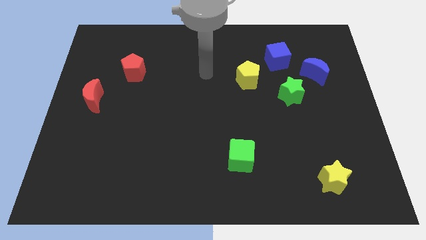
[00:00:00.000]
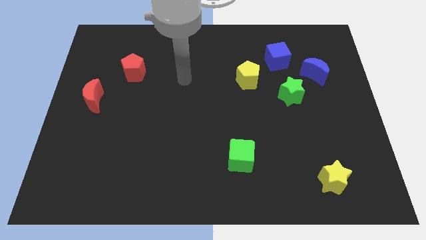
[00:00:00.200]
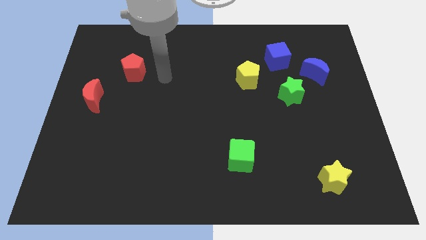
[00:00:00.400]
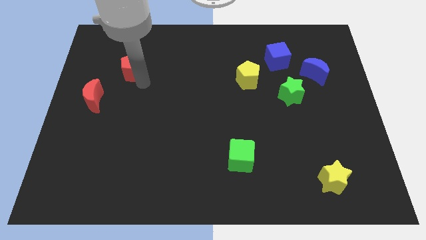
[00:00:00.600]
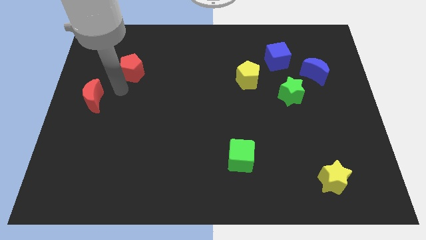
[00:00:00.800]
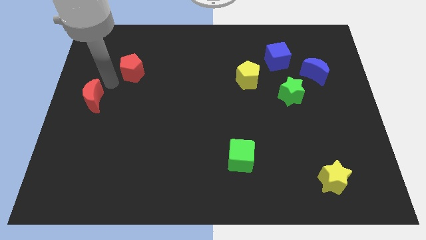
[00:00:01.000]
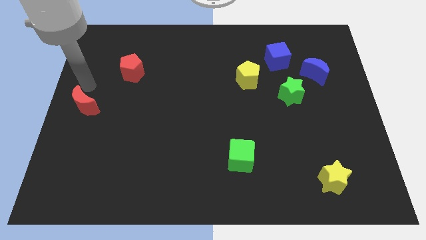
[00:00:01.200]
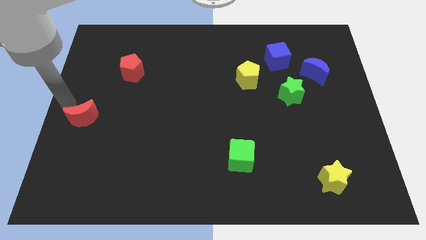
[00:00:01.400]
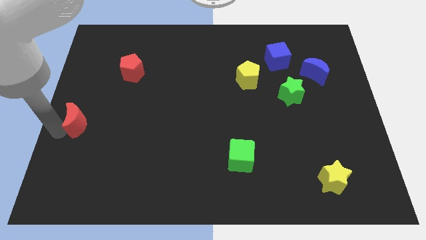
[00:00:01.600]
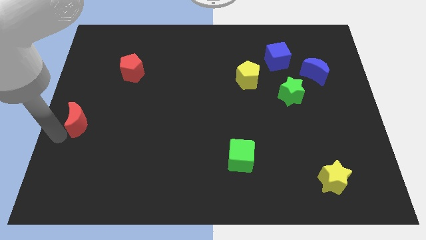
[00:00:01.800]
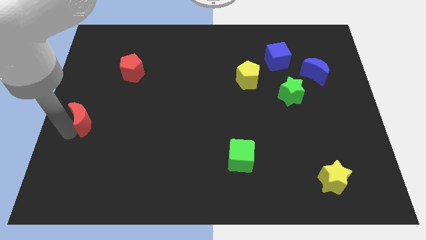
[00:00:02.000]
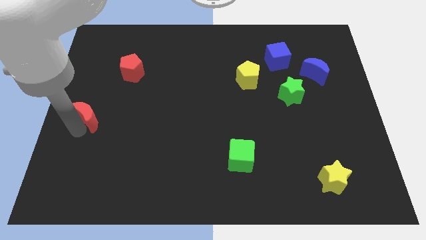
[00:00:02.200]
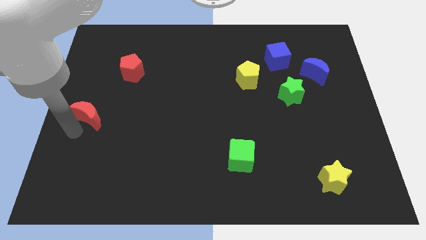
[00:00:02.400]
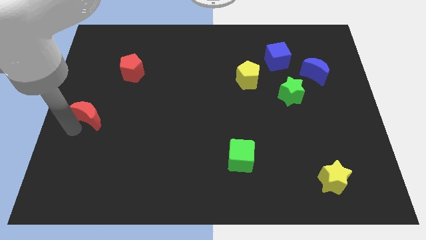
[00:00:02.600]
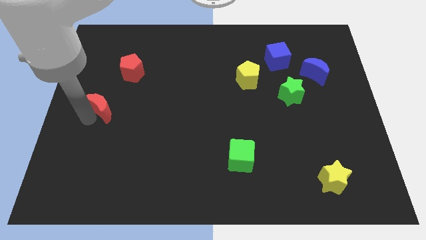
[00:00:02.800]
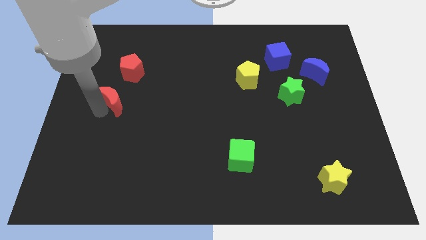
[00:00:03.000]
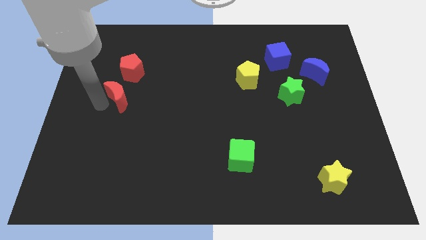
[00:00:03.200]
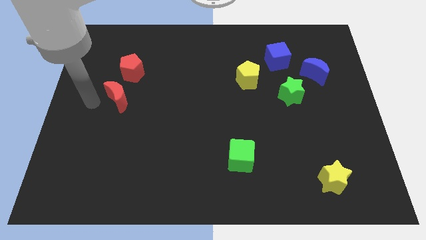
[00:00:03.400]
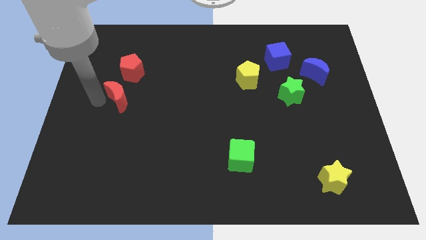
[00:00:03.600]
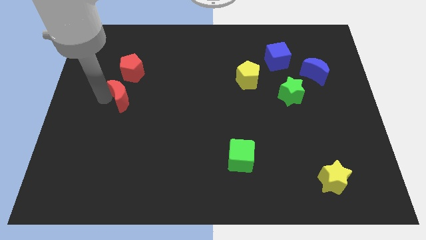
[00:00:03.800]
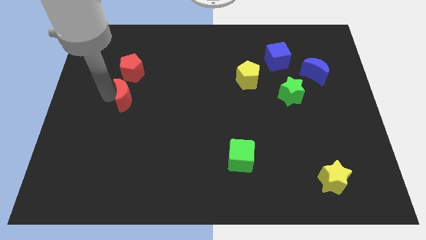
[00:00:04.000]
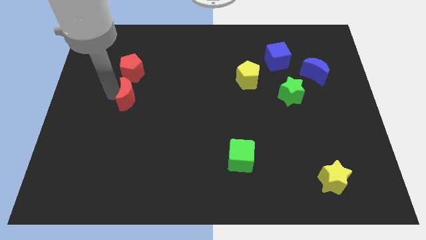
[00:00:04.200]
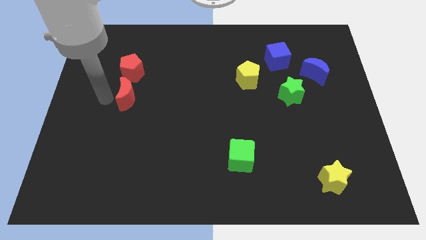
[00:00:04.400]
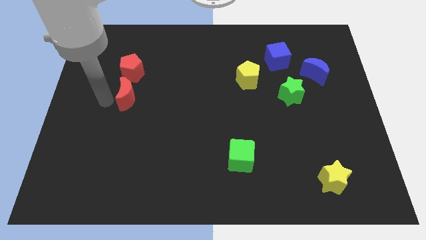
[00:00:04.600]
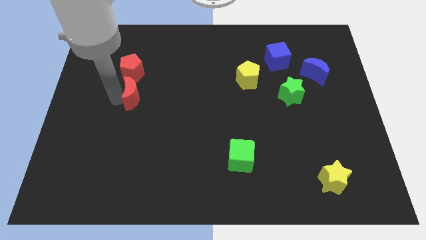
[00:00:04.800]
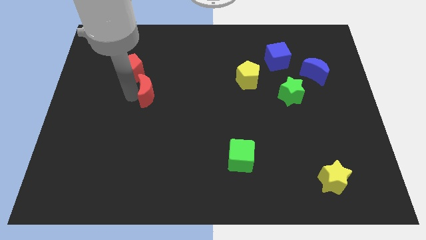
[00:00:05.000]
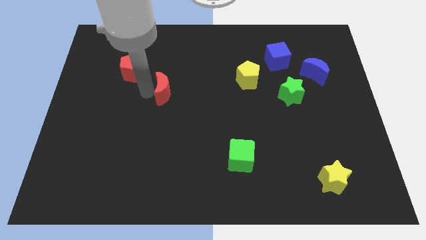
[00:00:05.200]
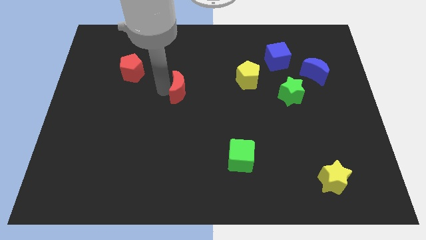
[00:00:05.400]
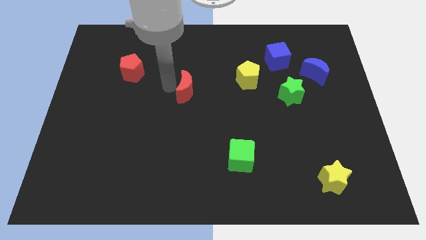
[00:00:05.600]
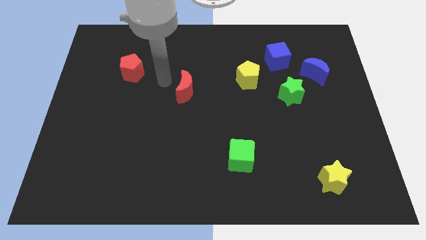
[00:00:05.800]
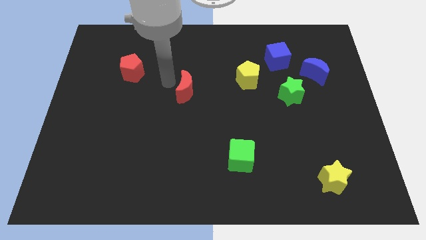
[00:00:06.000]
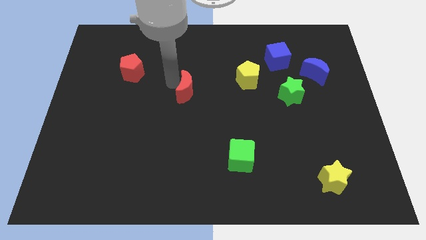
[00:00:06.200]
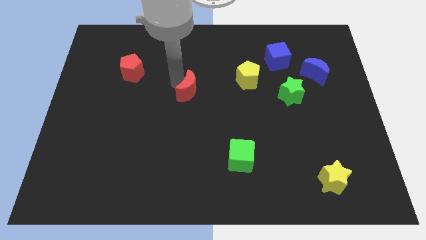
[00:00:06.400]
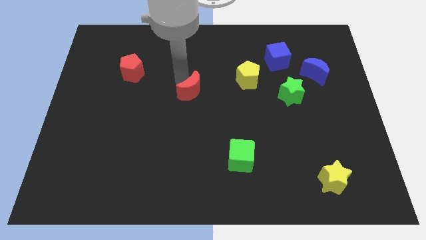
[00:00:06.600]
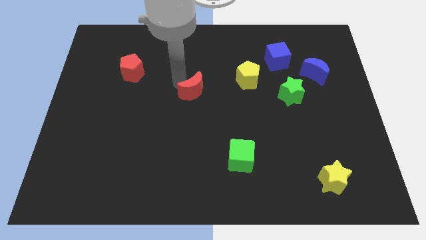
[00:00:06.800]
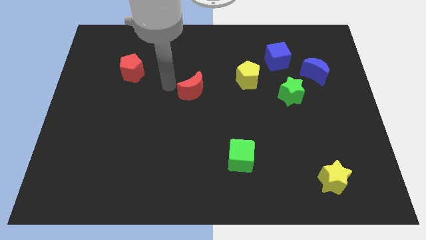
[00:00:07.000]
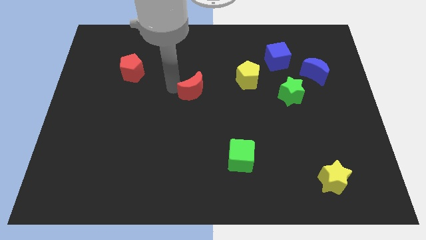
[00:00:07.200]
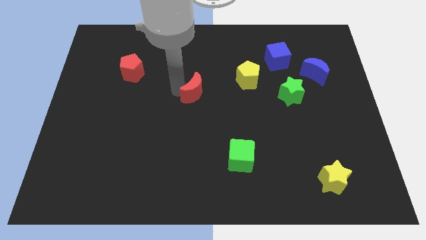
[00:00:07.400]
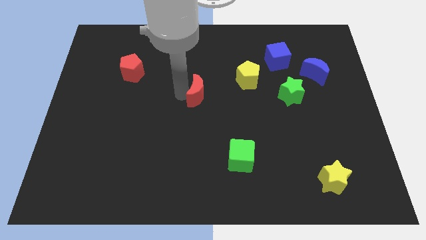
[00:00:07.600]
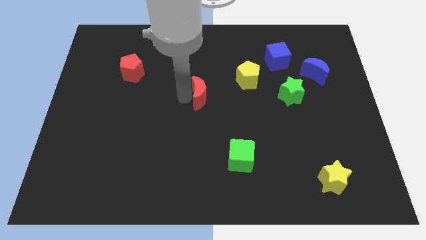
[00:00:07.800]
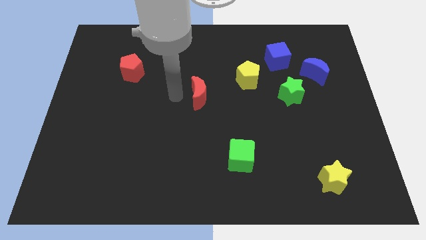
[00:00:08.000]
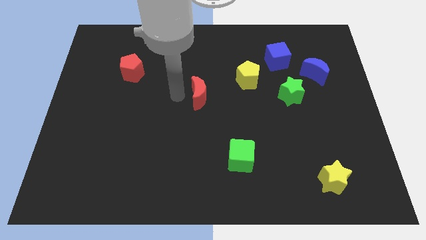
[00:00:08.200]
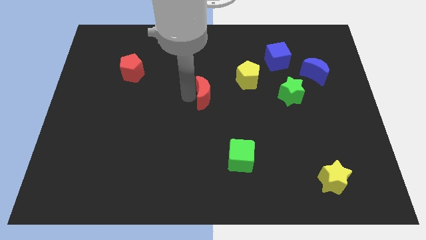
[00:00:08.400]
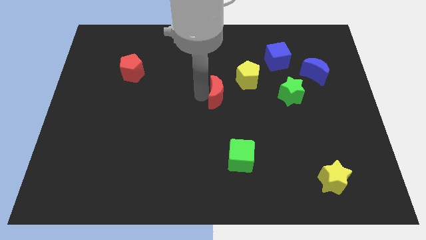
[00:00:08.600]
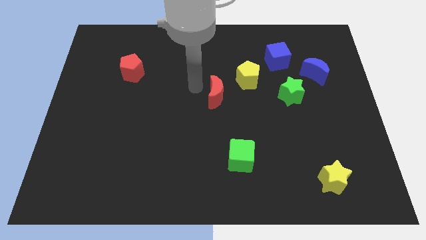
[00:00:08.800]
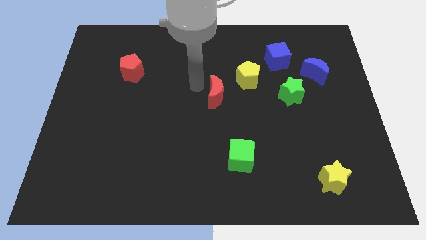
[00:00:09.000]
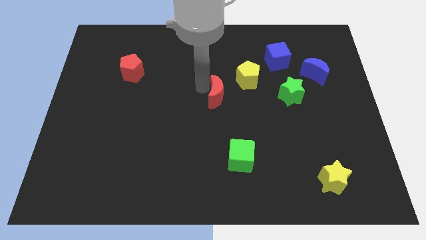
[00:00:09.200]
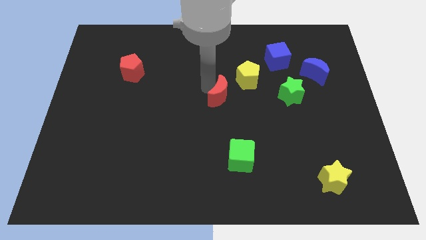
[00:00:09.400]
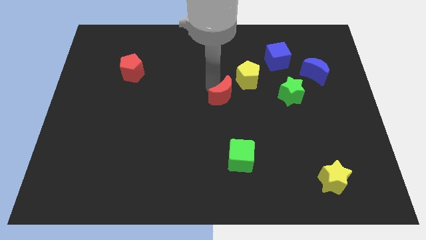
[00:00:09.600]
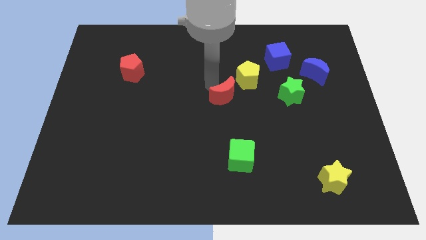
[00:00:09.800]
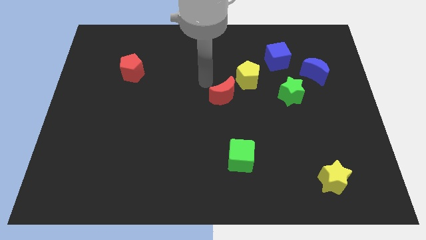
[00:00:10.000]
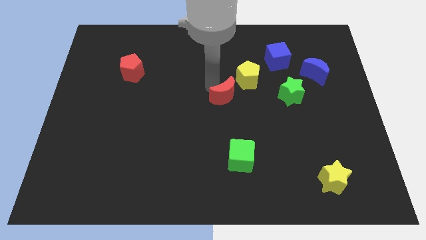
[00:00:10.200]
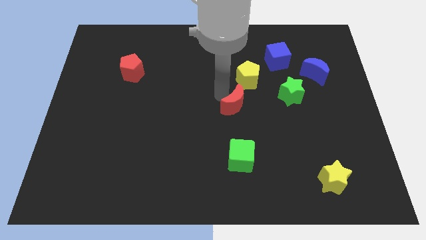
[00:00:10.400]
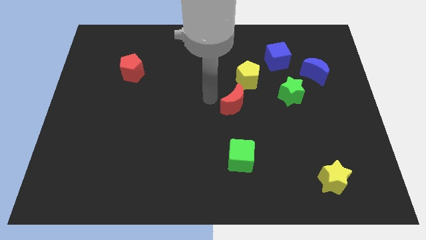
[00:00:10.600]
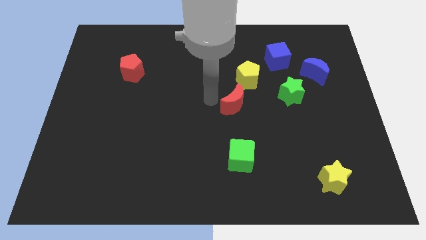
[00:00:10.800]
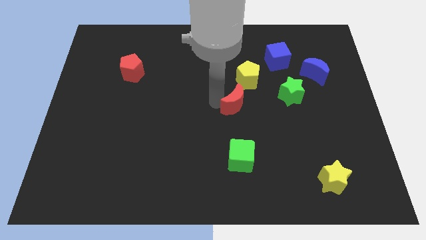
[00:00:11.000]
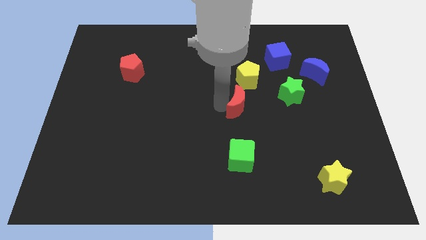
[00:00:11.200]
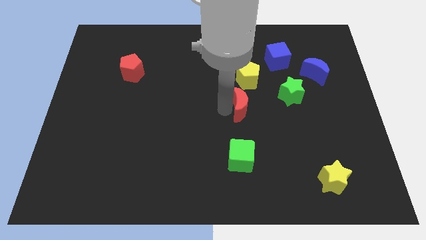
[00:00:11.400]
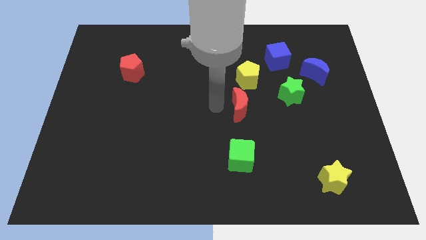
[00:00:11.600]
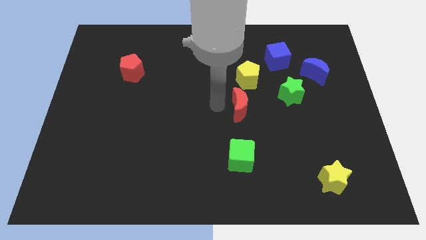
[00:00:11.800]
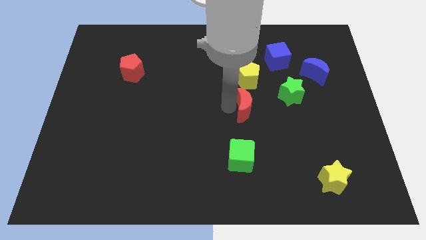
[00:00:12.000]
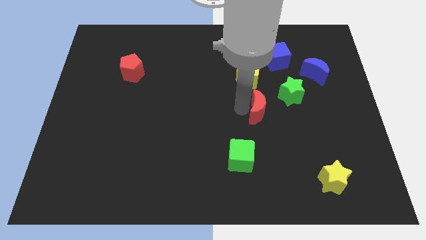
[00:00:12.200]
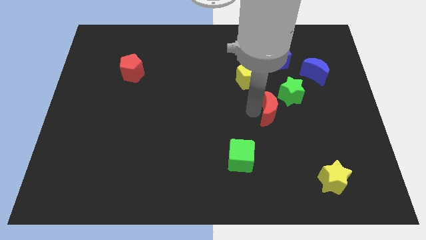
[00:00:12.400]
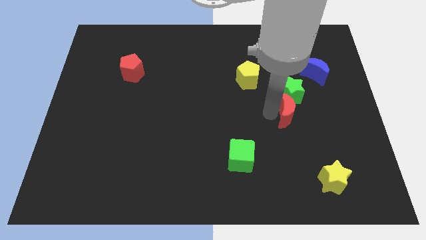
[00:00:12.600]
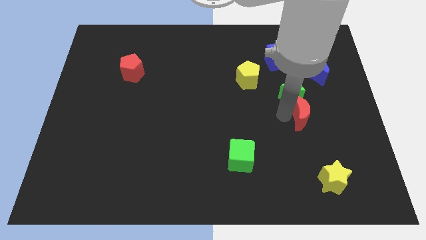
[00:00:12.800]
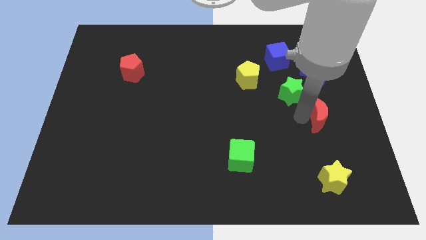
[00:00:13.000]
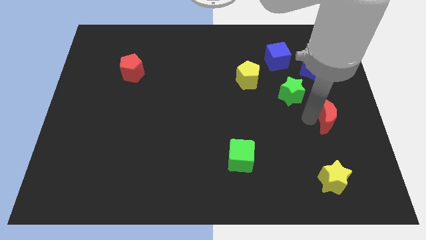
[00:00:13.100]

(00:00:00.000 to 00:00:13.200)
put the red moon to the right side of the board
